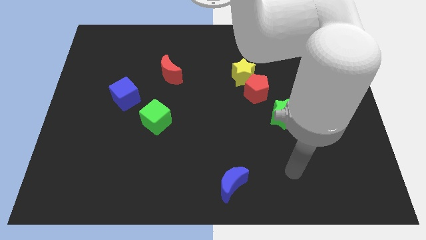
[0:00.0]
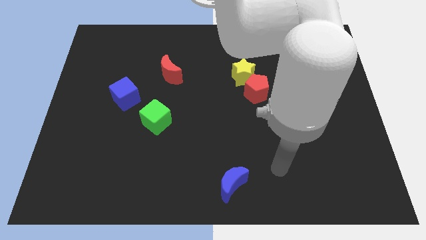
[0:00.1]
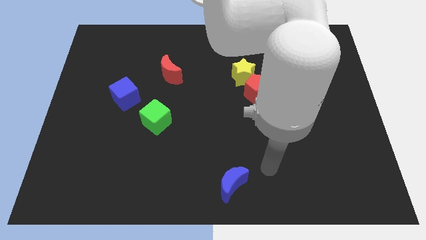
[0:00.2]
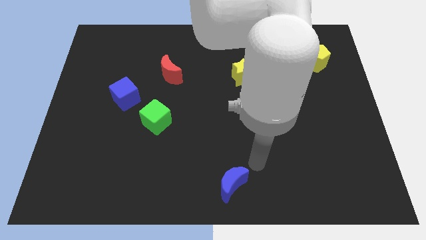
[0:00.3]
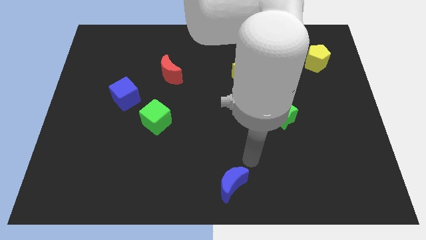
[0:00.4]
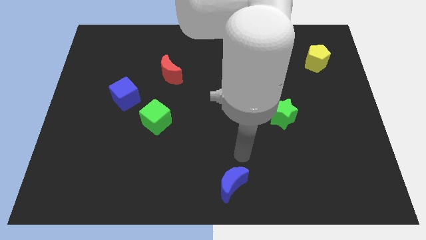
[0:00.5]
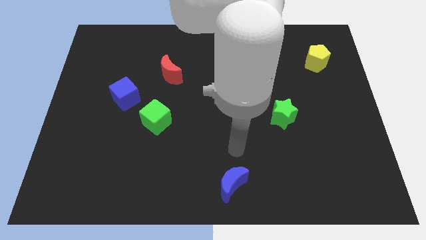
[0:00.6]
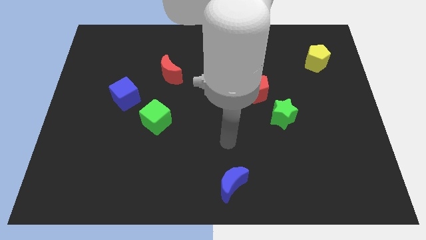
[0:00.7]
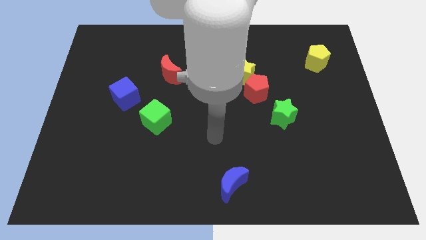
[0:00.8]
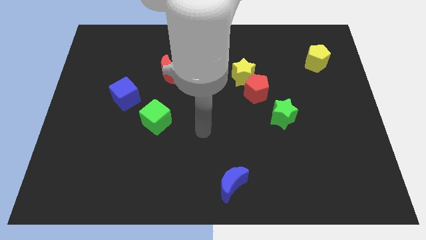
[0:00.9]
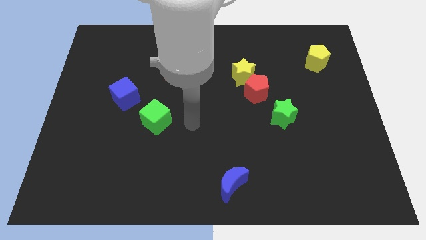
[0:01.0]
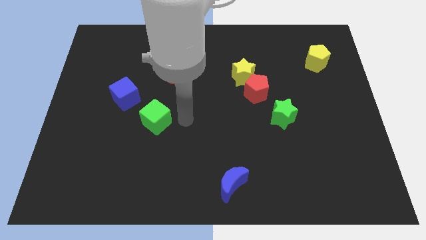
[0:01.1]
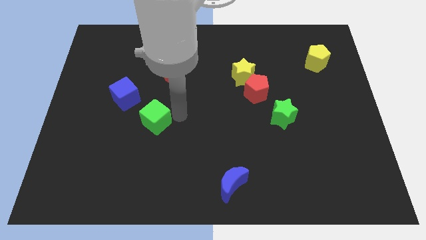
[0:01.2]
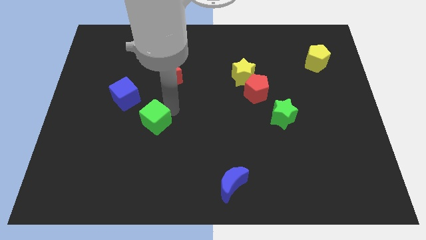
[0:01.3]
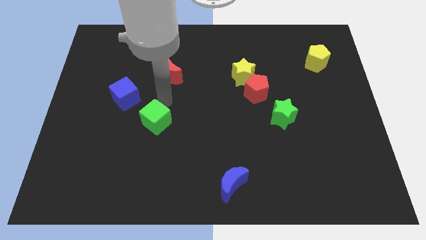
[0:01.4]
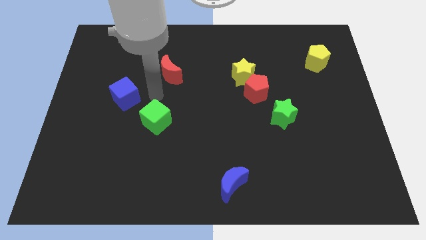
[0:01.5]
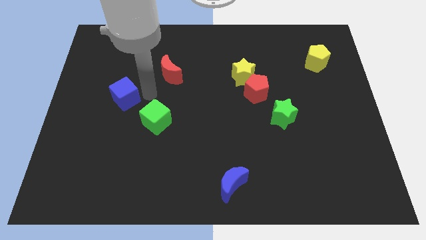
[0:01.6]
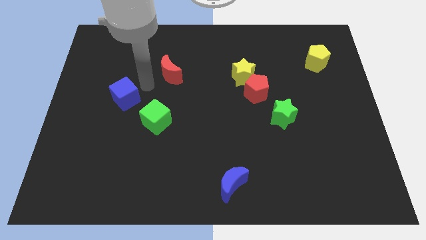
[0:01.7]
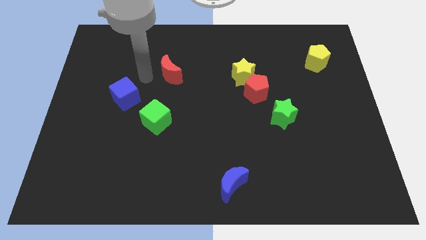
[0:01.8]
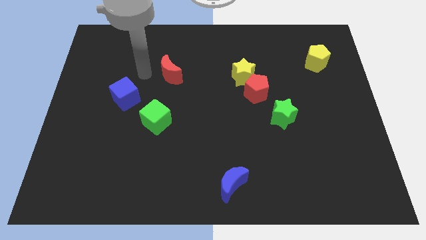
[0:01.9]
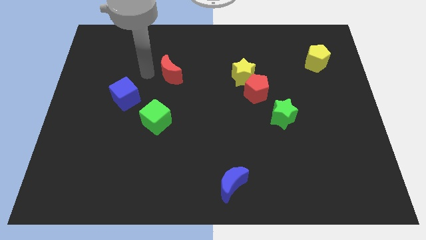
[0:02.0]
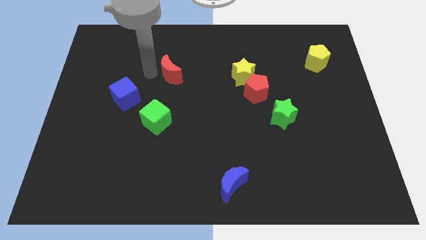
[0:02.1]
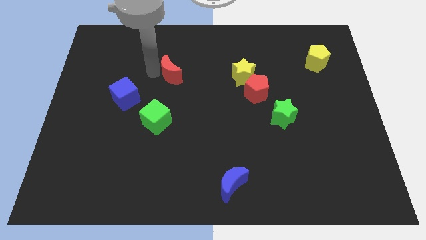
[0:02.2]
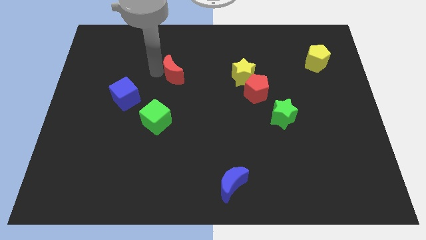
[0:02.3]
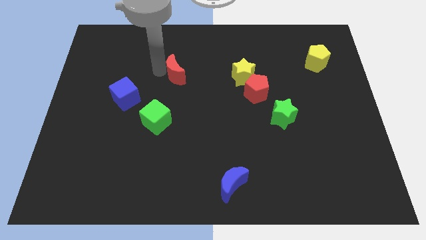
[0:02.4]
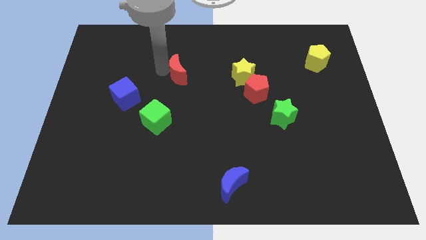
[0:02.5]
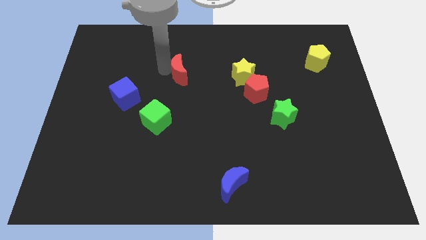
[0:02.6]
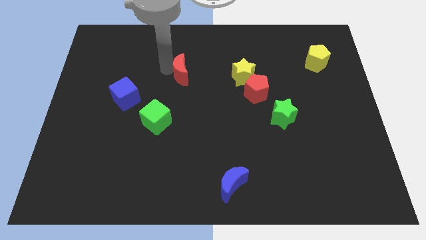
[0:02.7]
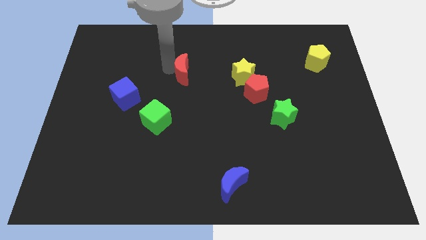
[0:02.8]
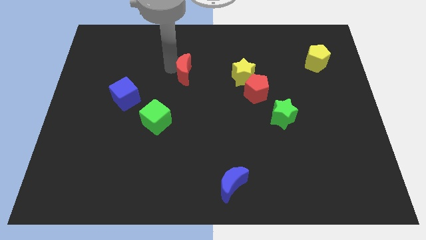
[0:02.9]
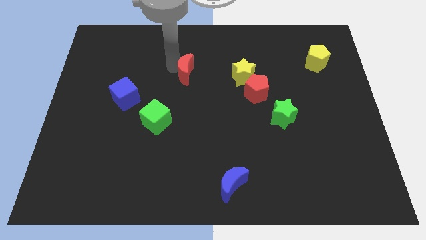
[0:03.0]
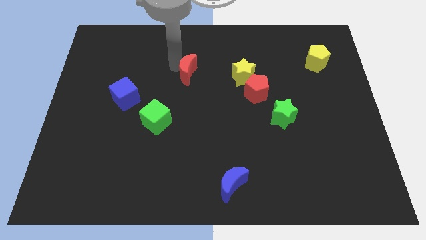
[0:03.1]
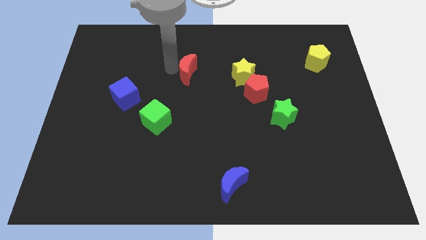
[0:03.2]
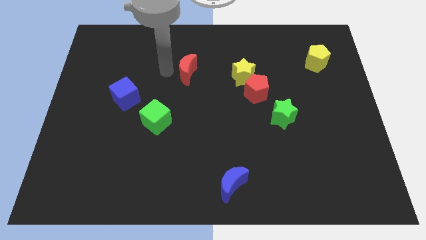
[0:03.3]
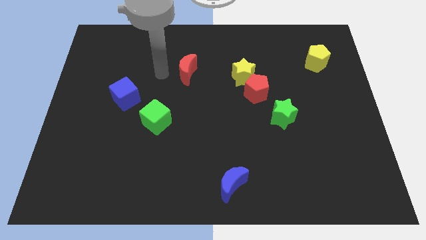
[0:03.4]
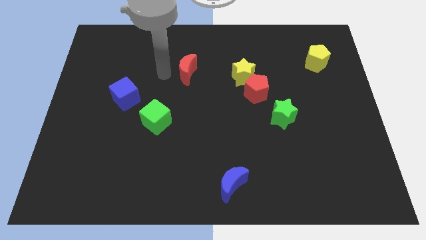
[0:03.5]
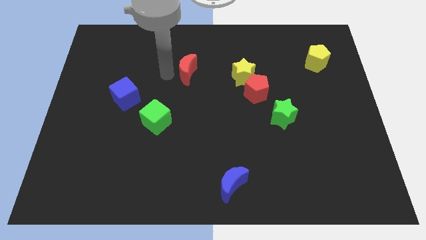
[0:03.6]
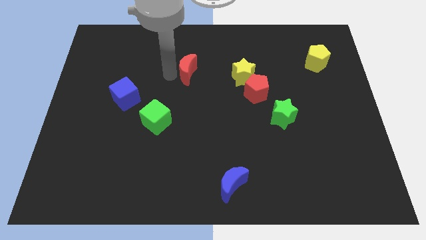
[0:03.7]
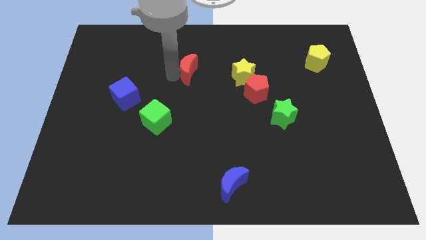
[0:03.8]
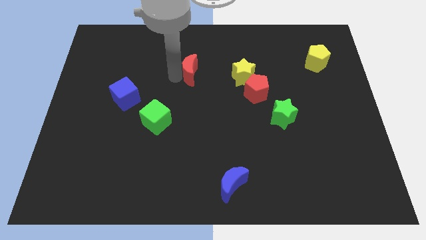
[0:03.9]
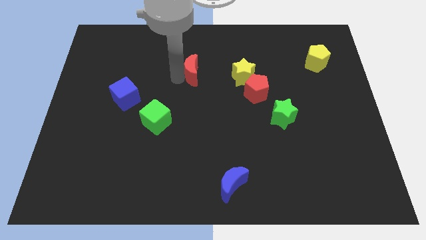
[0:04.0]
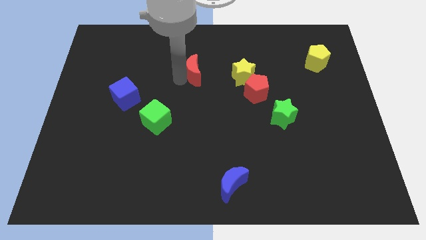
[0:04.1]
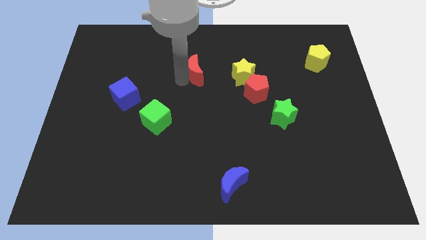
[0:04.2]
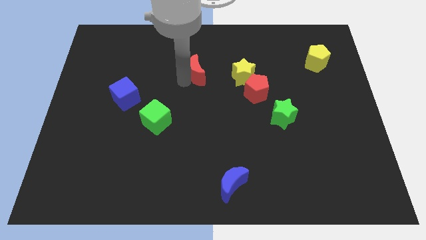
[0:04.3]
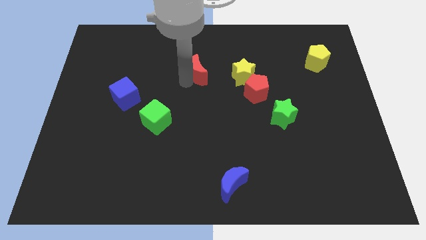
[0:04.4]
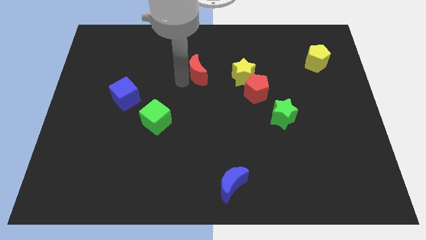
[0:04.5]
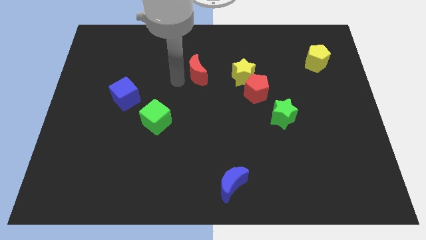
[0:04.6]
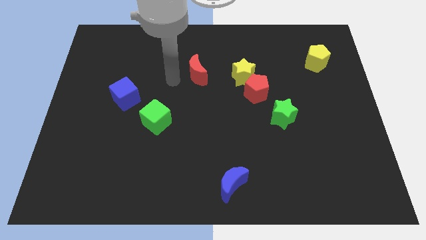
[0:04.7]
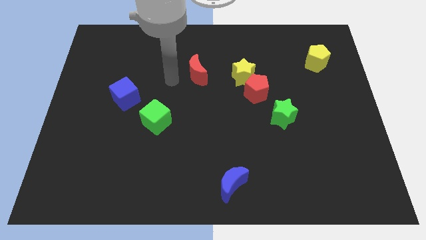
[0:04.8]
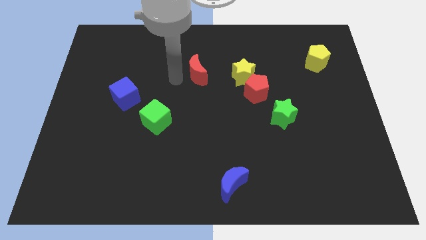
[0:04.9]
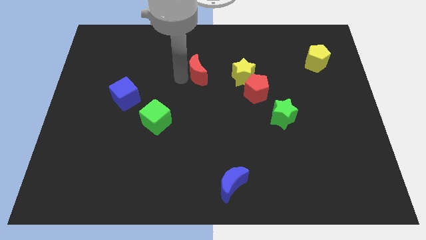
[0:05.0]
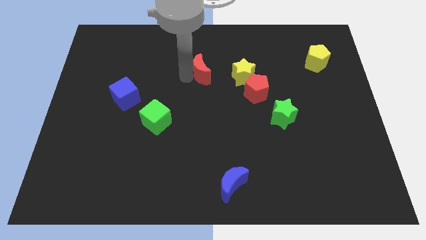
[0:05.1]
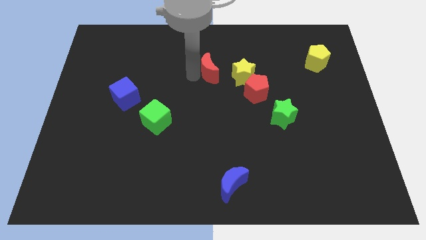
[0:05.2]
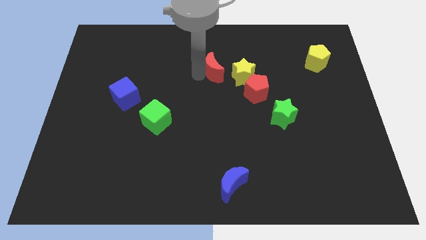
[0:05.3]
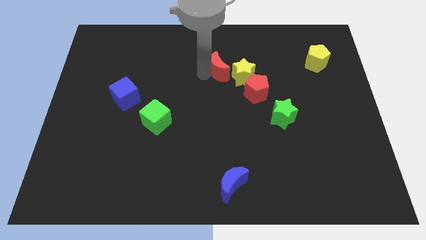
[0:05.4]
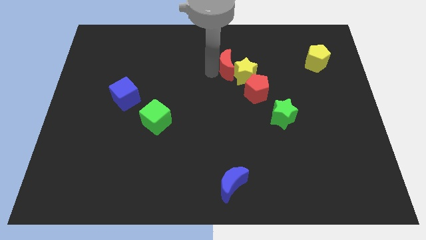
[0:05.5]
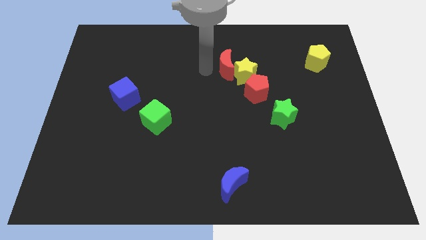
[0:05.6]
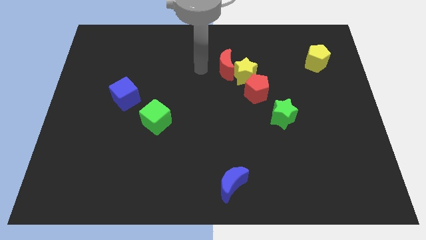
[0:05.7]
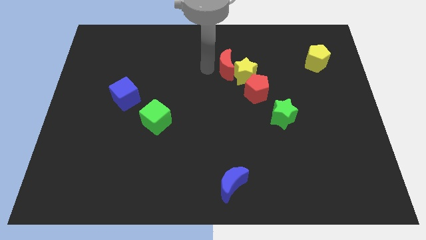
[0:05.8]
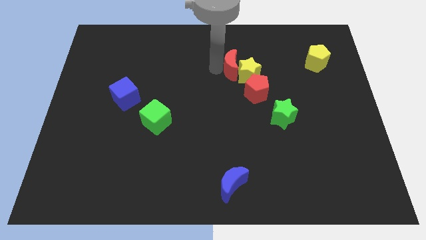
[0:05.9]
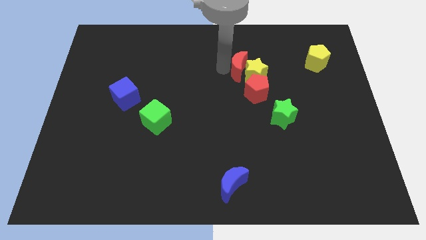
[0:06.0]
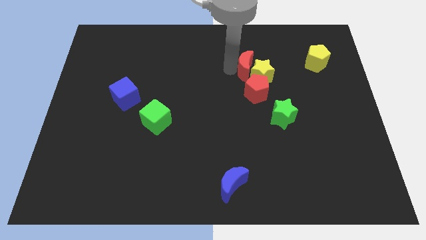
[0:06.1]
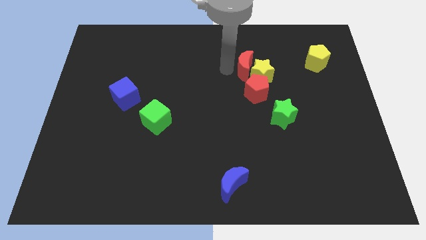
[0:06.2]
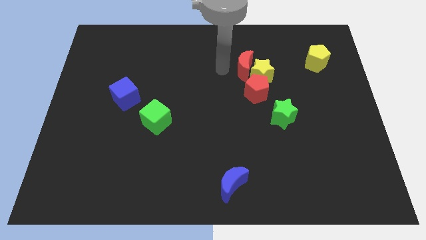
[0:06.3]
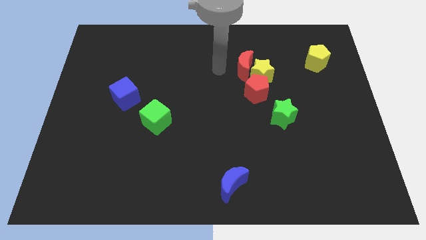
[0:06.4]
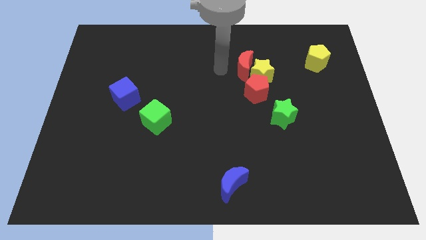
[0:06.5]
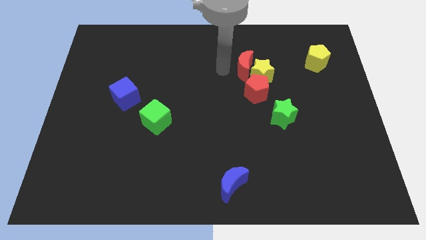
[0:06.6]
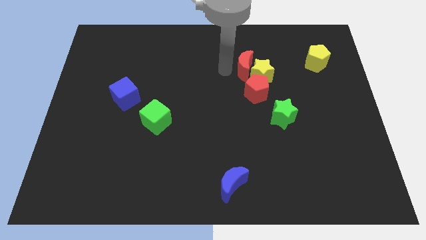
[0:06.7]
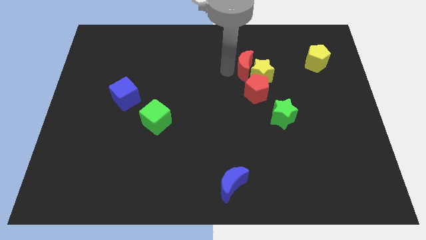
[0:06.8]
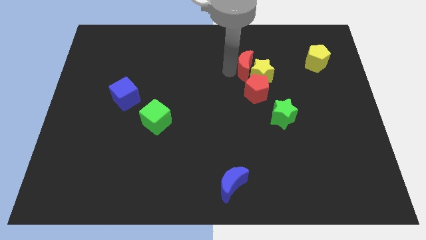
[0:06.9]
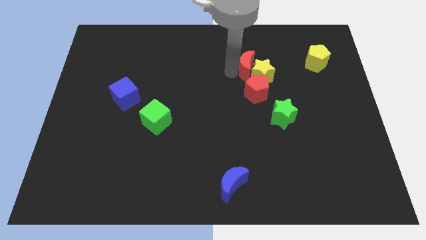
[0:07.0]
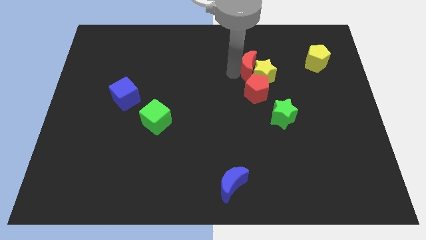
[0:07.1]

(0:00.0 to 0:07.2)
push the red moon to the right

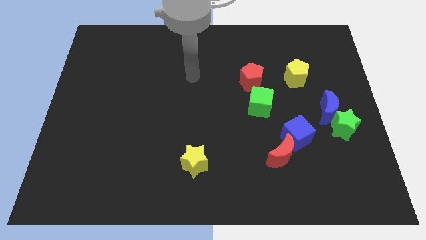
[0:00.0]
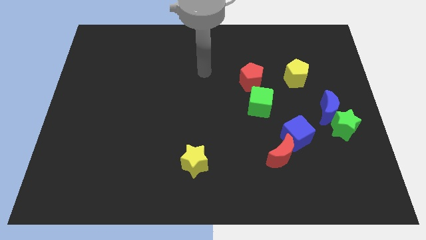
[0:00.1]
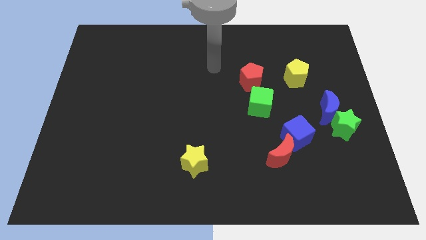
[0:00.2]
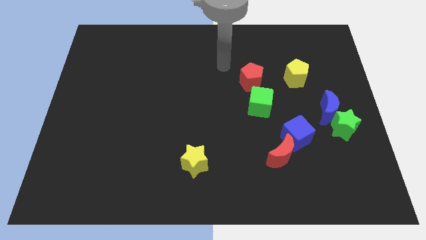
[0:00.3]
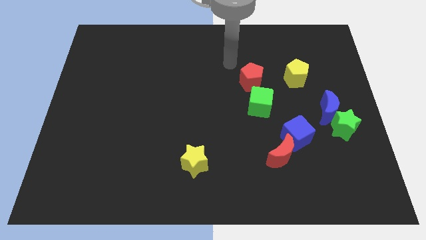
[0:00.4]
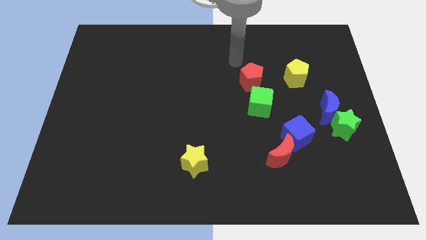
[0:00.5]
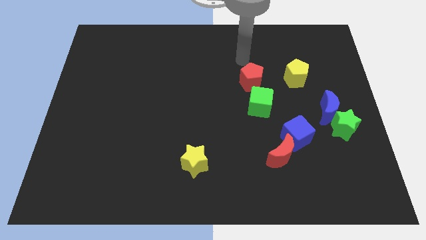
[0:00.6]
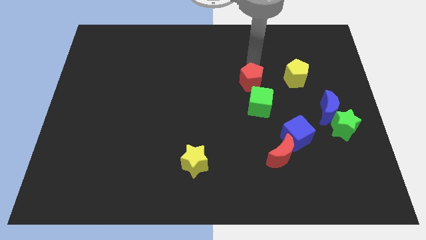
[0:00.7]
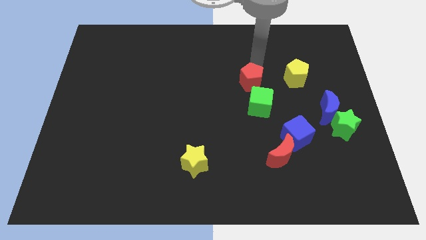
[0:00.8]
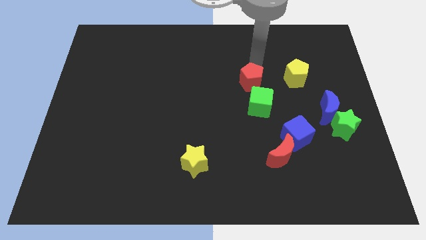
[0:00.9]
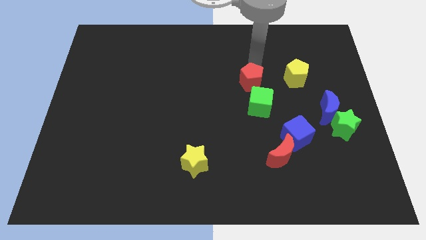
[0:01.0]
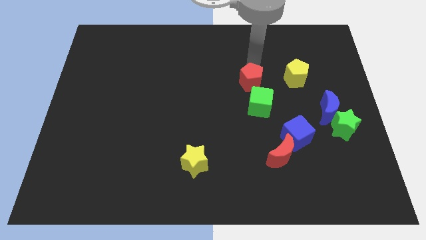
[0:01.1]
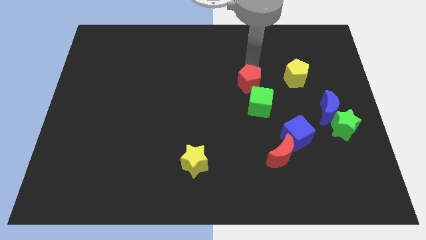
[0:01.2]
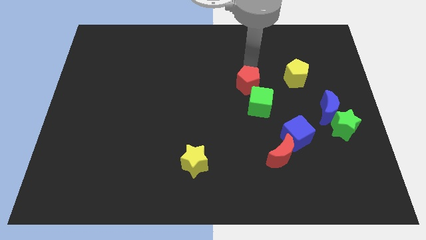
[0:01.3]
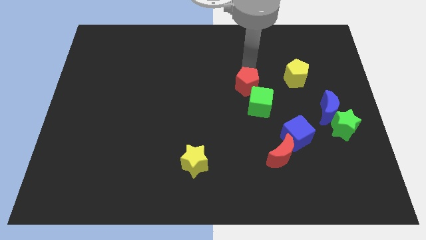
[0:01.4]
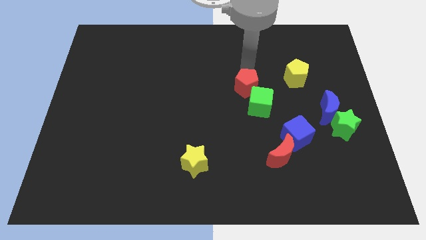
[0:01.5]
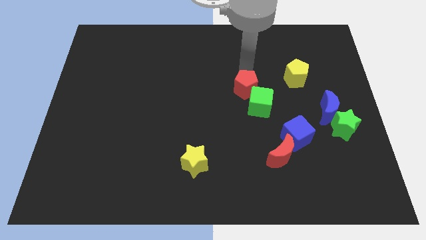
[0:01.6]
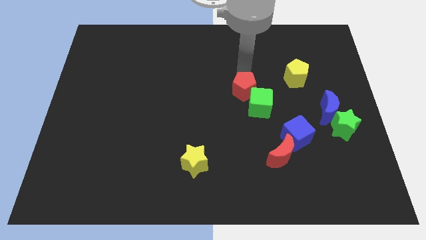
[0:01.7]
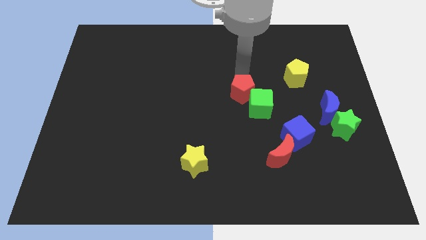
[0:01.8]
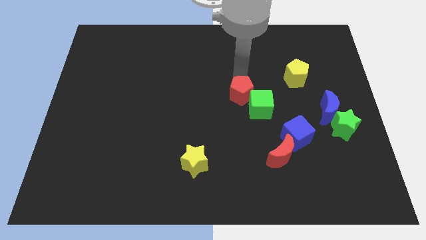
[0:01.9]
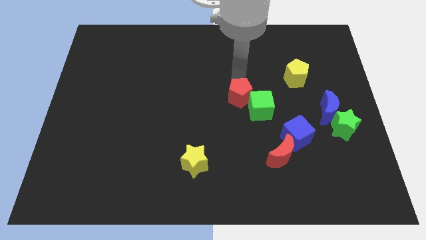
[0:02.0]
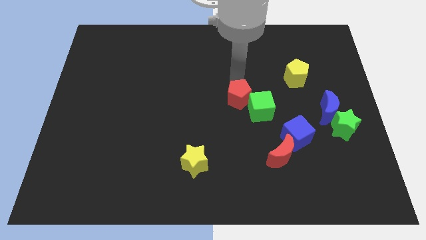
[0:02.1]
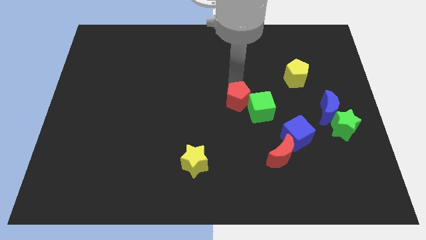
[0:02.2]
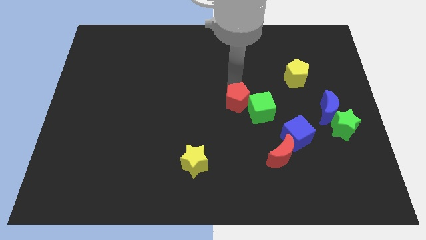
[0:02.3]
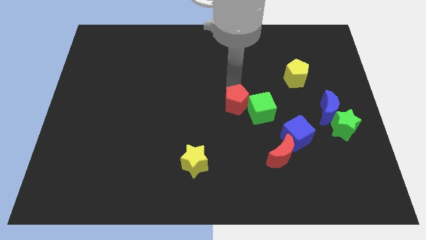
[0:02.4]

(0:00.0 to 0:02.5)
slightly slide the red pentagon downwards
